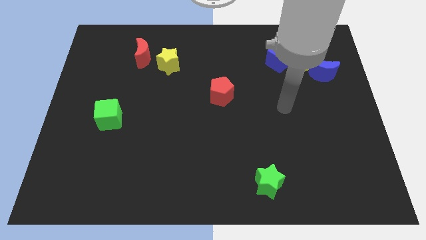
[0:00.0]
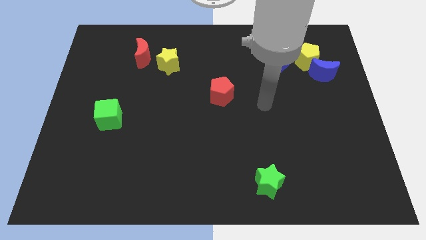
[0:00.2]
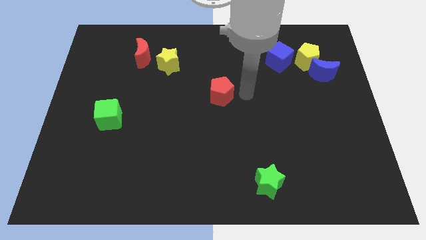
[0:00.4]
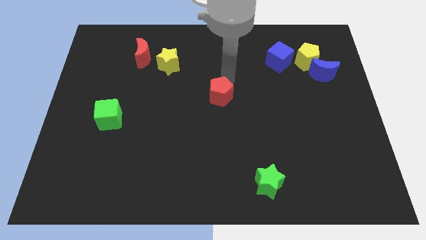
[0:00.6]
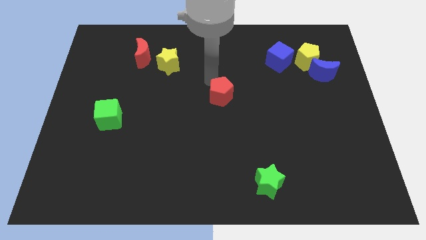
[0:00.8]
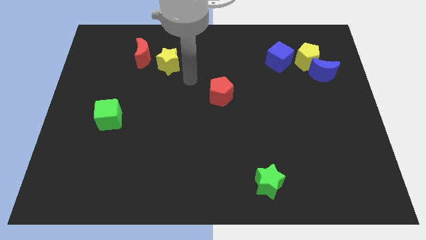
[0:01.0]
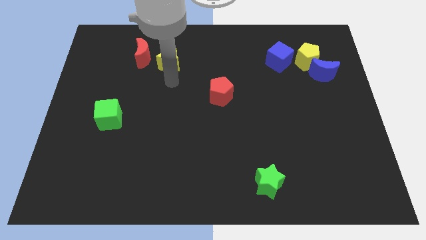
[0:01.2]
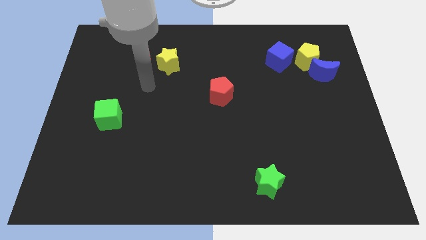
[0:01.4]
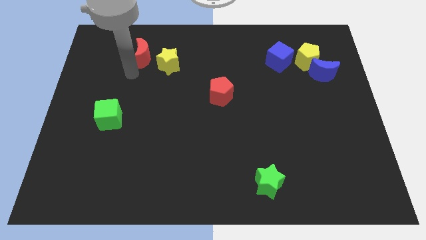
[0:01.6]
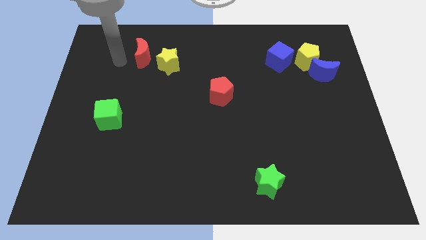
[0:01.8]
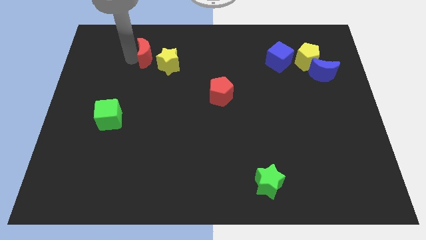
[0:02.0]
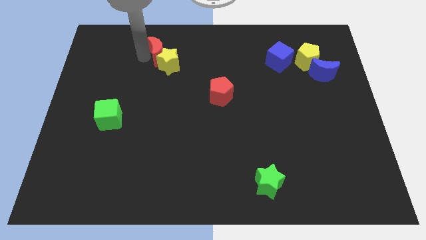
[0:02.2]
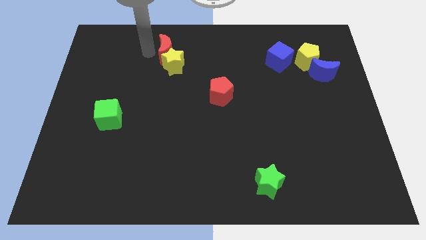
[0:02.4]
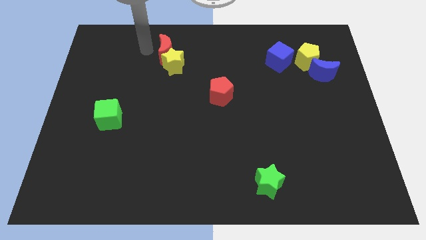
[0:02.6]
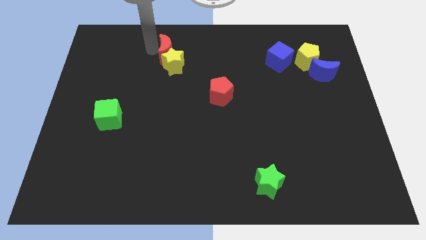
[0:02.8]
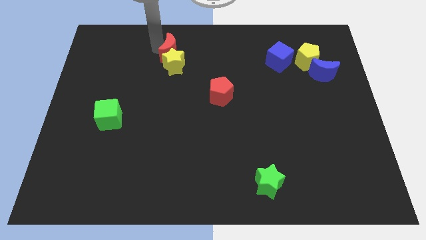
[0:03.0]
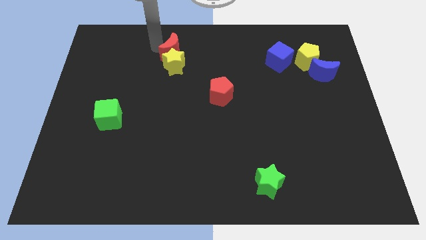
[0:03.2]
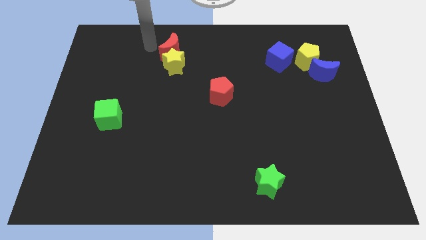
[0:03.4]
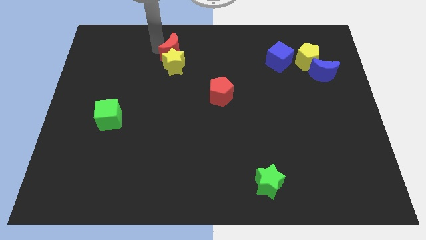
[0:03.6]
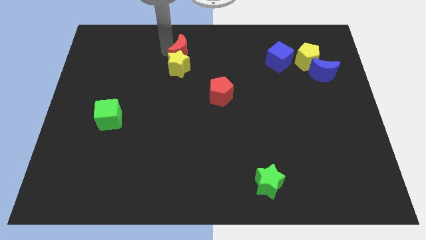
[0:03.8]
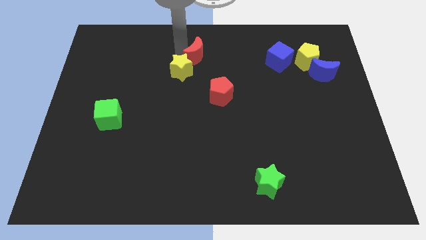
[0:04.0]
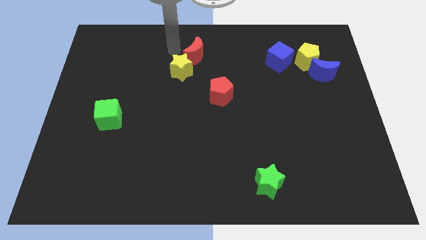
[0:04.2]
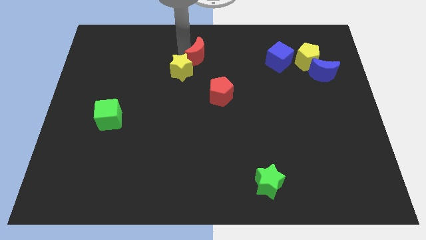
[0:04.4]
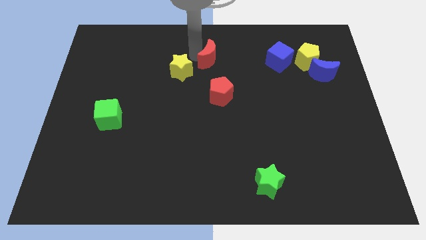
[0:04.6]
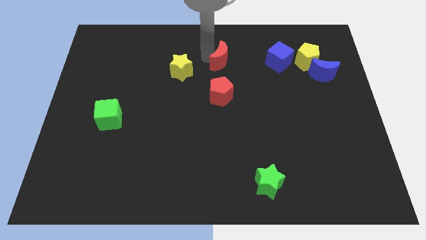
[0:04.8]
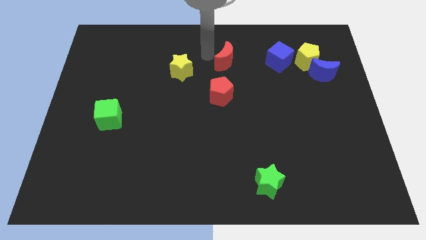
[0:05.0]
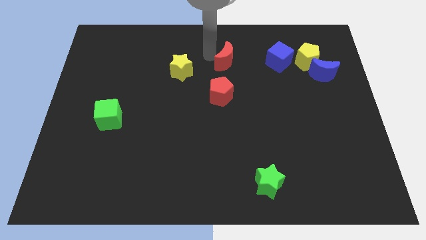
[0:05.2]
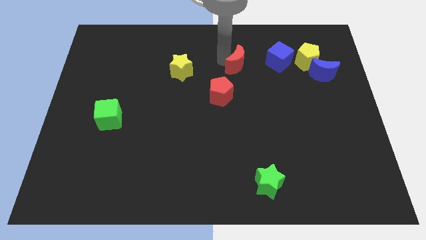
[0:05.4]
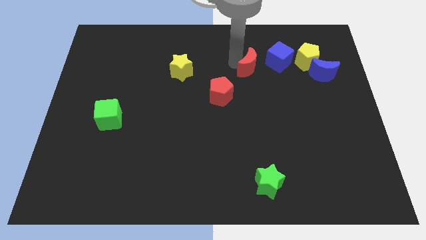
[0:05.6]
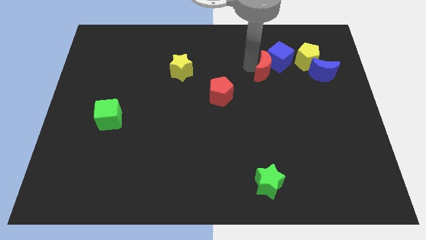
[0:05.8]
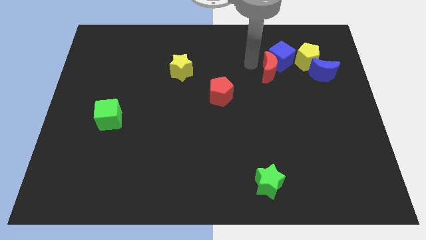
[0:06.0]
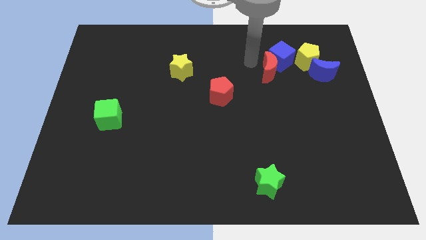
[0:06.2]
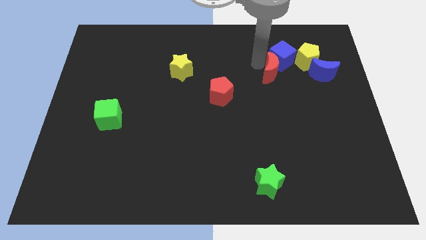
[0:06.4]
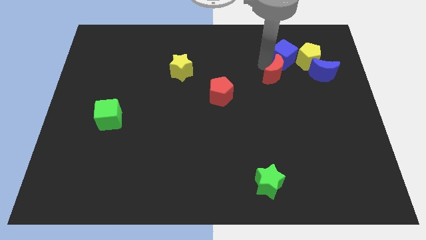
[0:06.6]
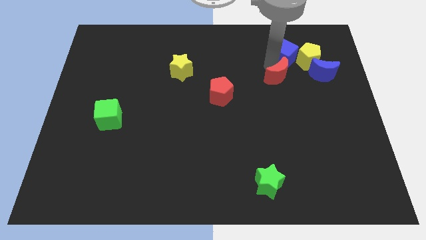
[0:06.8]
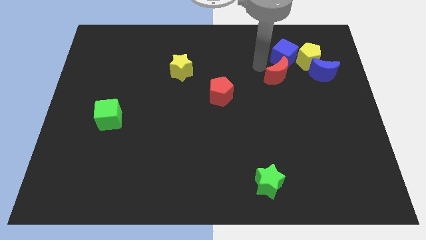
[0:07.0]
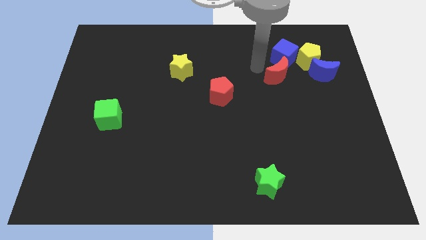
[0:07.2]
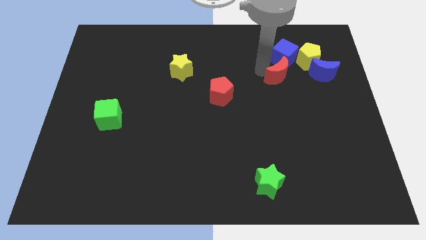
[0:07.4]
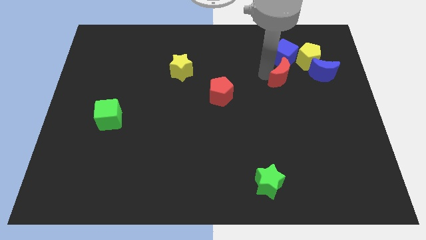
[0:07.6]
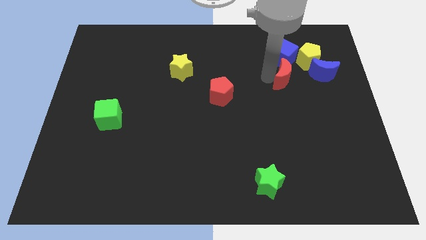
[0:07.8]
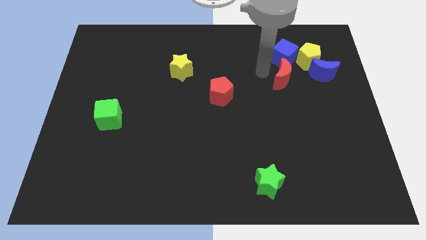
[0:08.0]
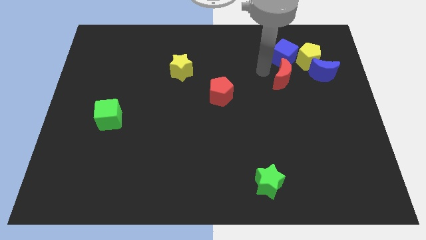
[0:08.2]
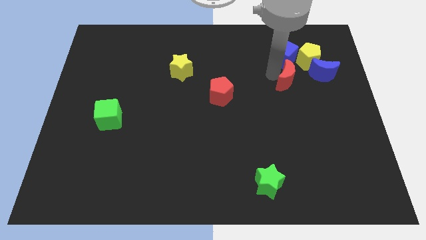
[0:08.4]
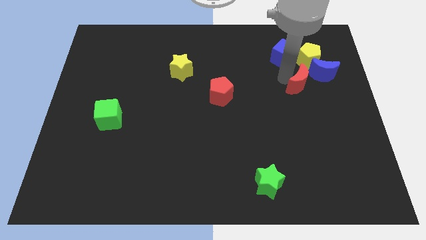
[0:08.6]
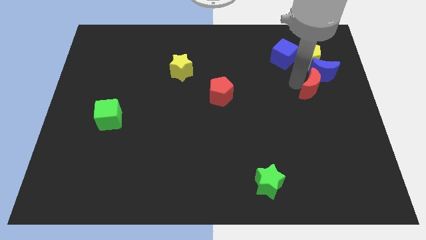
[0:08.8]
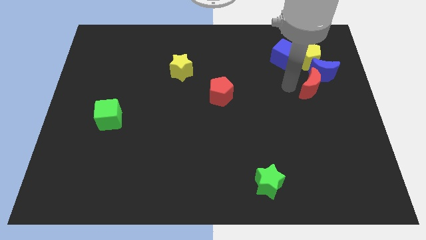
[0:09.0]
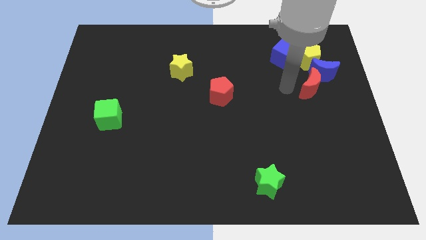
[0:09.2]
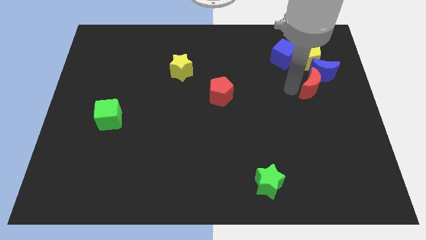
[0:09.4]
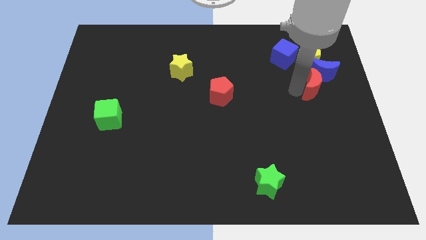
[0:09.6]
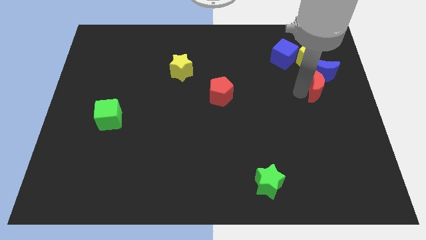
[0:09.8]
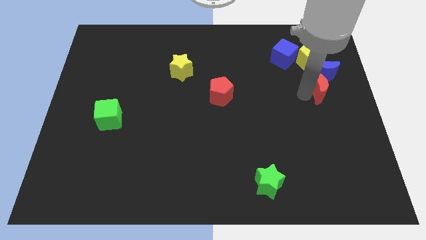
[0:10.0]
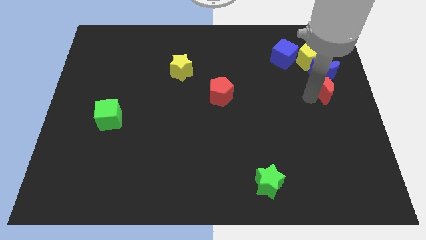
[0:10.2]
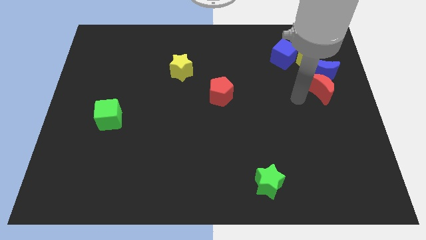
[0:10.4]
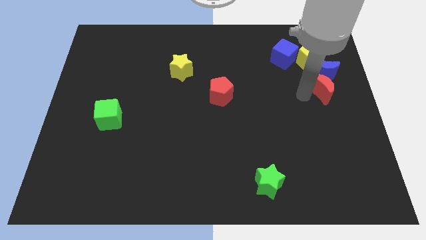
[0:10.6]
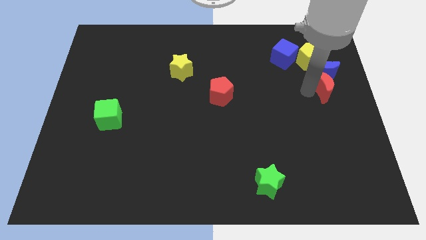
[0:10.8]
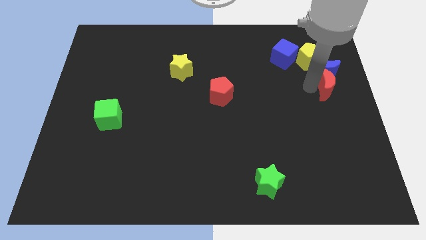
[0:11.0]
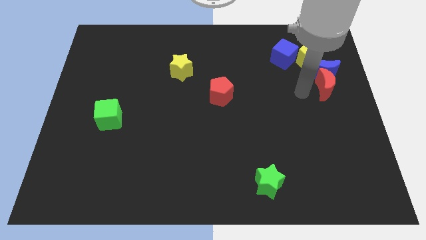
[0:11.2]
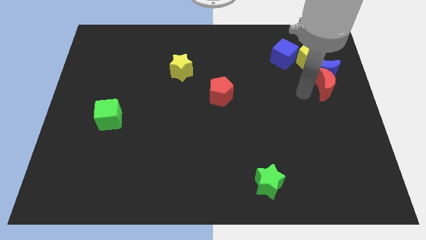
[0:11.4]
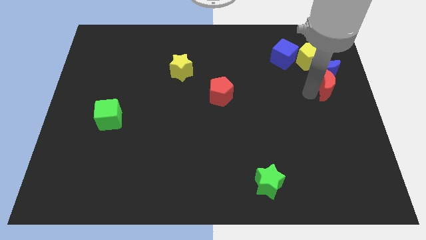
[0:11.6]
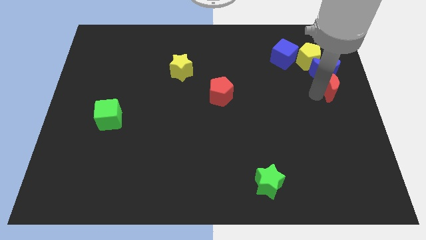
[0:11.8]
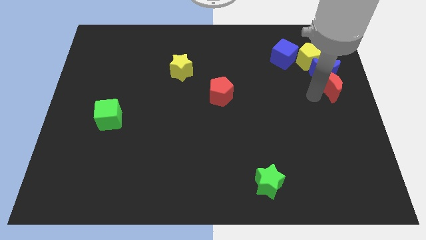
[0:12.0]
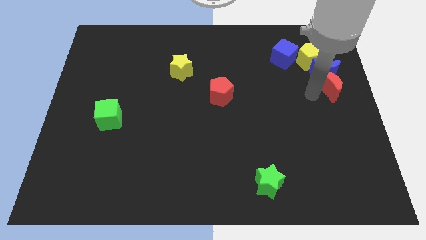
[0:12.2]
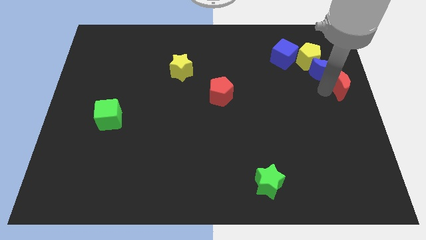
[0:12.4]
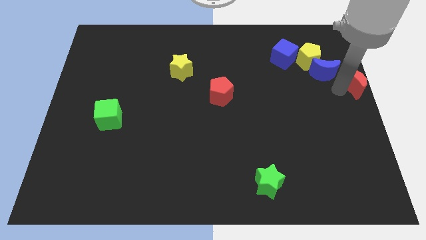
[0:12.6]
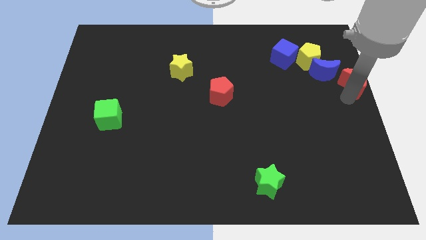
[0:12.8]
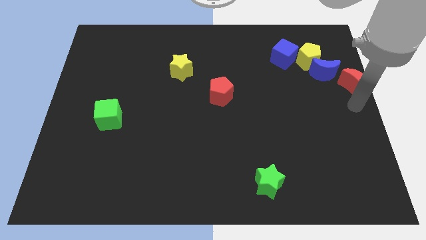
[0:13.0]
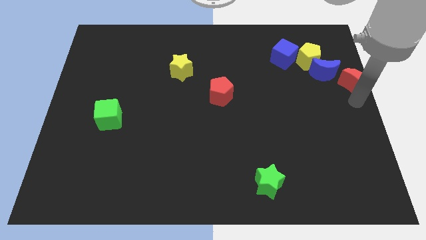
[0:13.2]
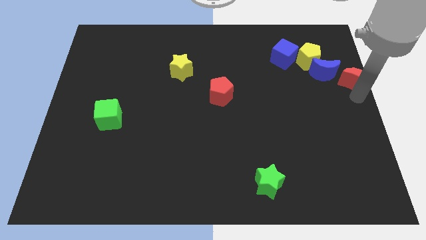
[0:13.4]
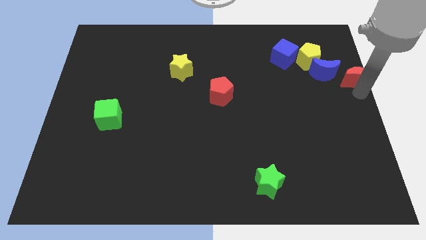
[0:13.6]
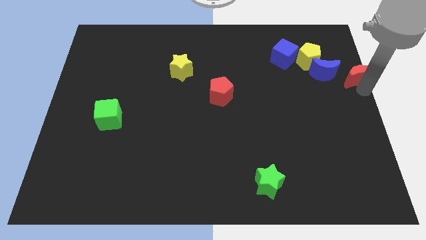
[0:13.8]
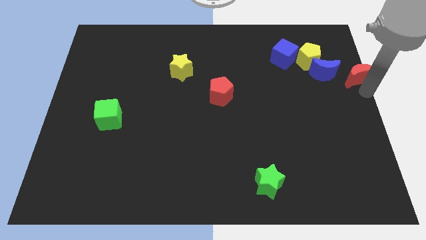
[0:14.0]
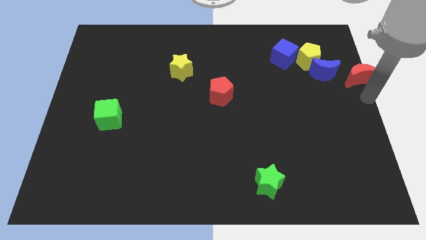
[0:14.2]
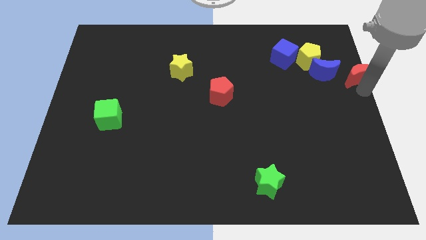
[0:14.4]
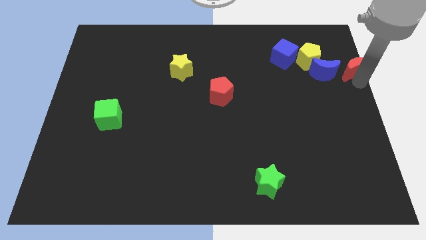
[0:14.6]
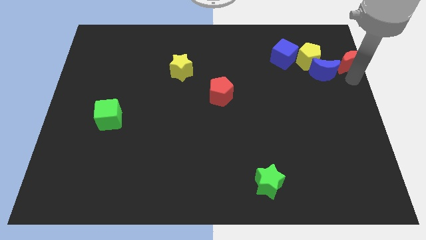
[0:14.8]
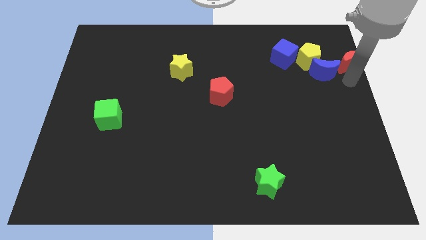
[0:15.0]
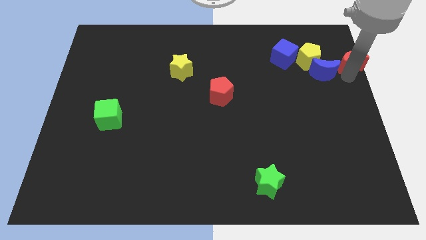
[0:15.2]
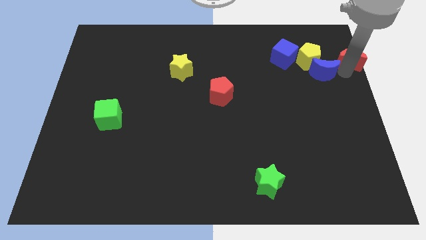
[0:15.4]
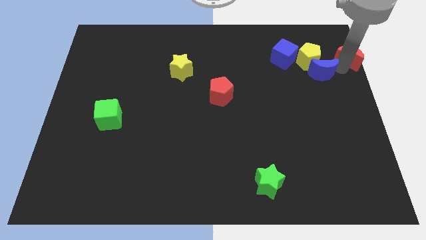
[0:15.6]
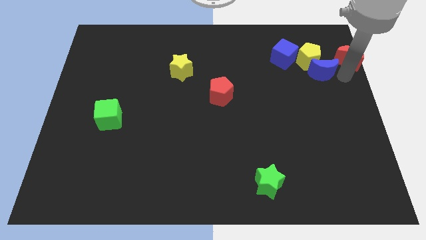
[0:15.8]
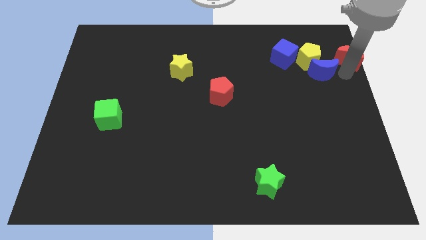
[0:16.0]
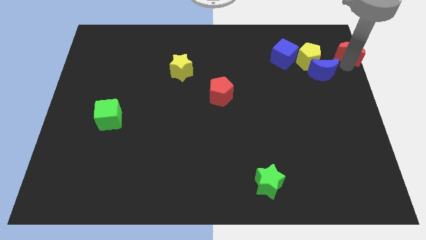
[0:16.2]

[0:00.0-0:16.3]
move the red moon to the top right
